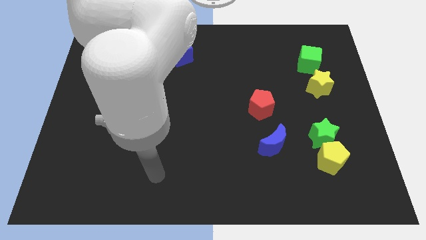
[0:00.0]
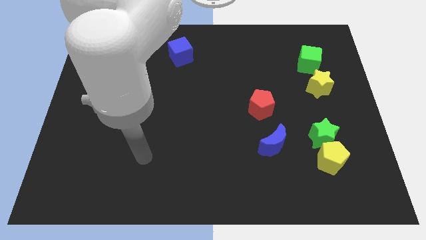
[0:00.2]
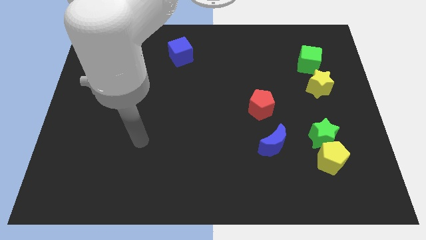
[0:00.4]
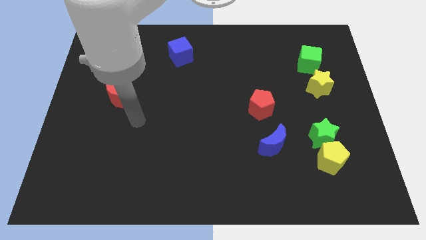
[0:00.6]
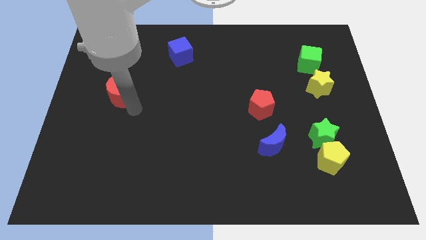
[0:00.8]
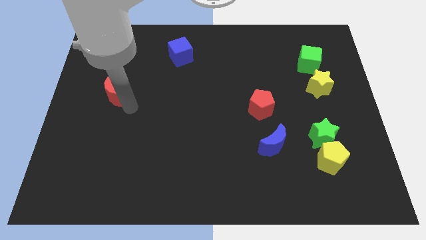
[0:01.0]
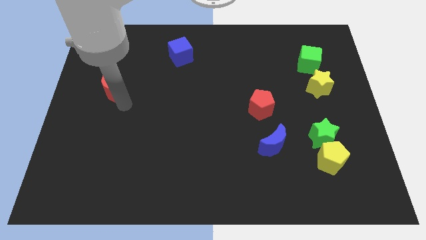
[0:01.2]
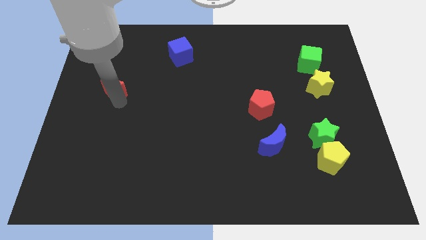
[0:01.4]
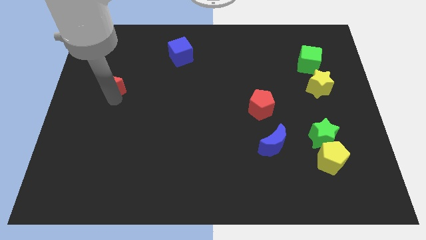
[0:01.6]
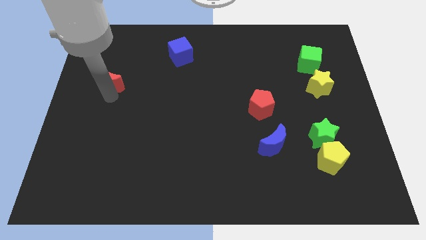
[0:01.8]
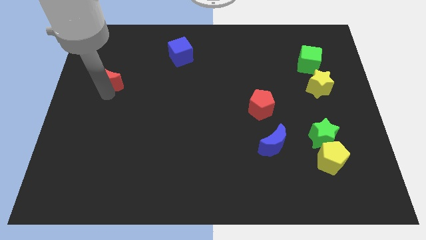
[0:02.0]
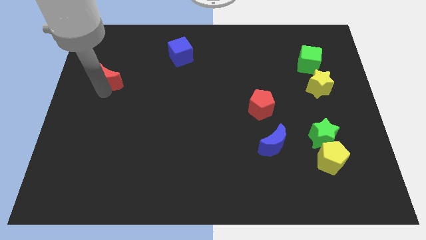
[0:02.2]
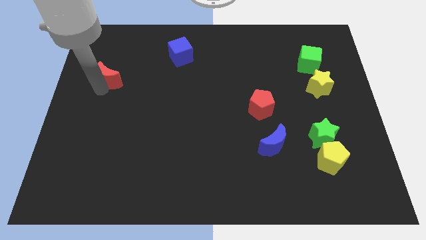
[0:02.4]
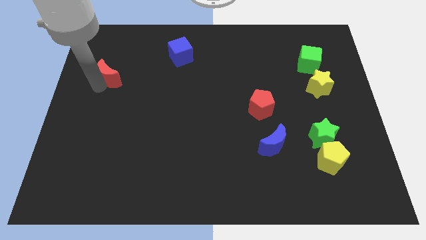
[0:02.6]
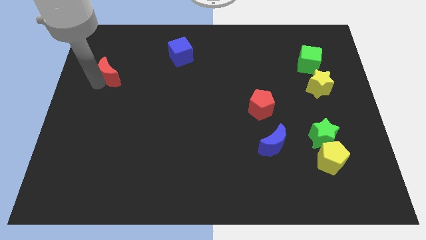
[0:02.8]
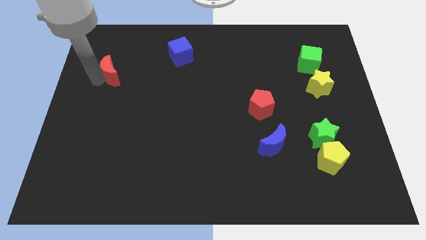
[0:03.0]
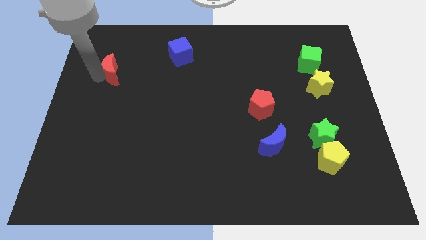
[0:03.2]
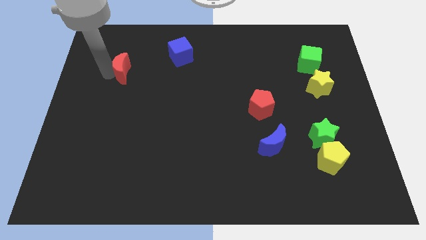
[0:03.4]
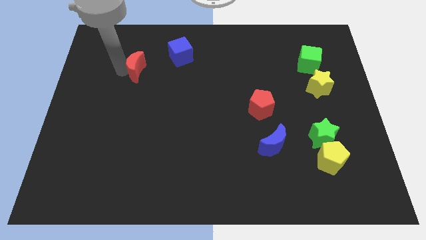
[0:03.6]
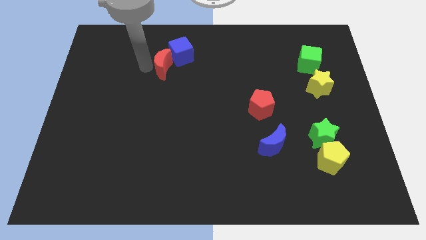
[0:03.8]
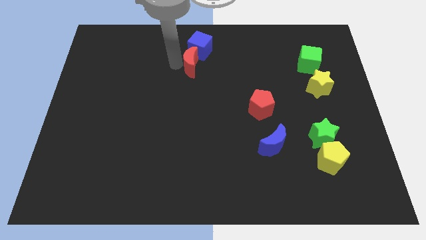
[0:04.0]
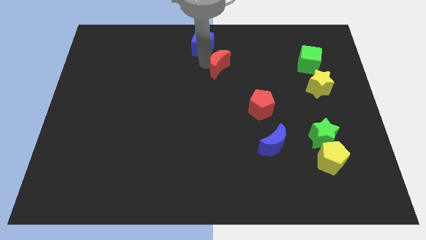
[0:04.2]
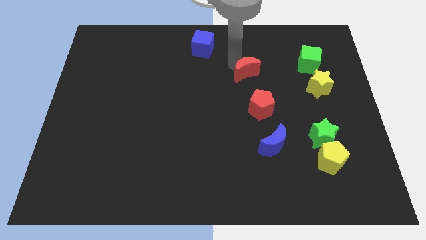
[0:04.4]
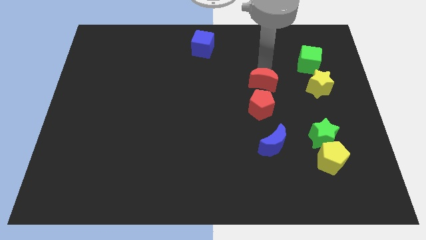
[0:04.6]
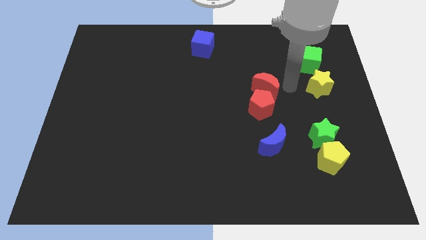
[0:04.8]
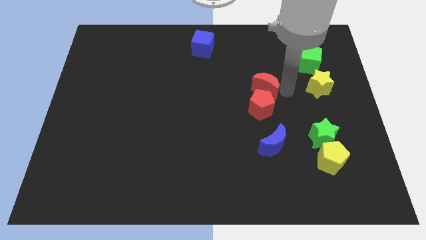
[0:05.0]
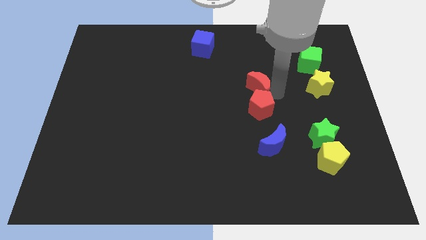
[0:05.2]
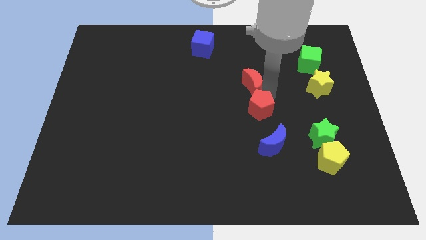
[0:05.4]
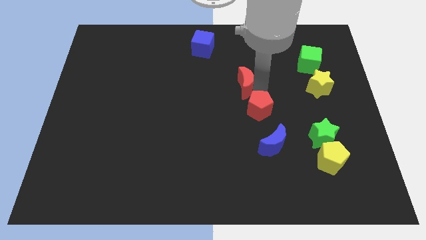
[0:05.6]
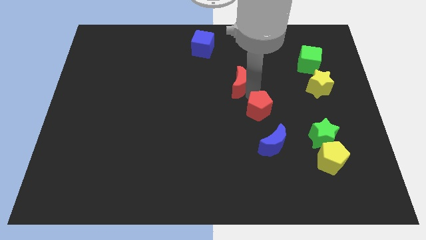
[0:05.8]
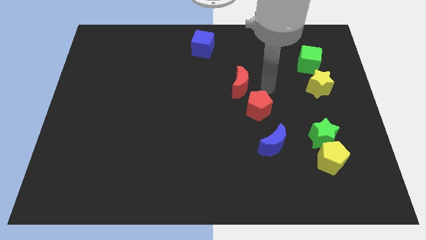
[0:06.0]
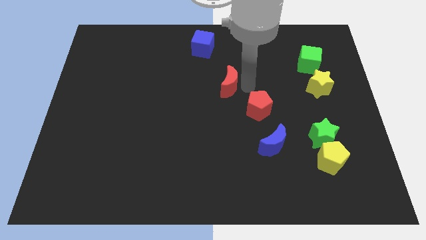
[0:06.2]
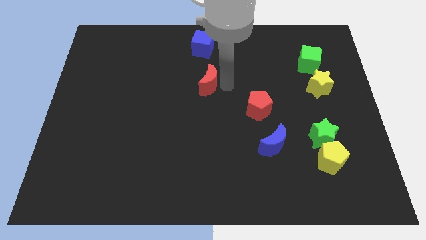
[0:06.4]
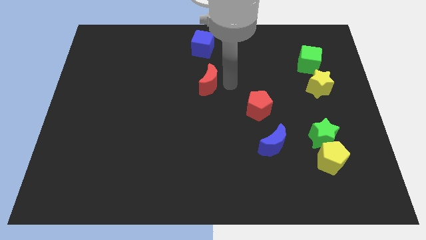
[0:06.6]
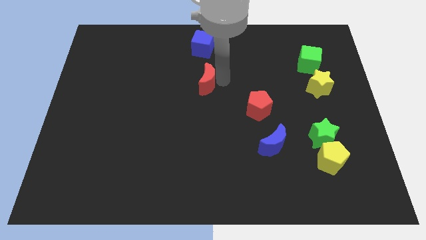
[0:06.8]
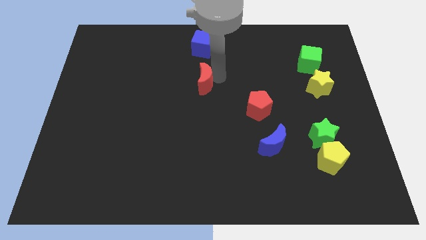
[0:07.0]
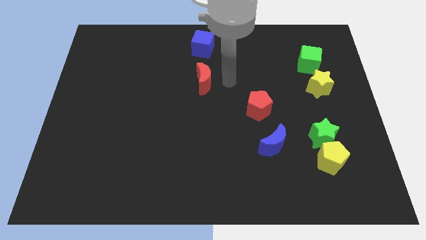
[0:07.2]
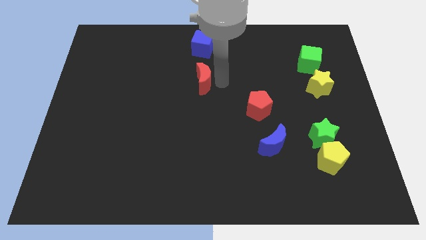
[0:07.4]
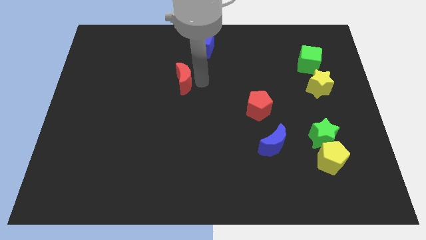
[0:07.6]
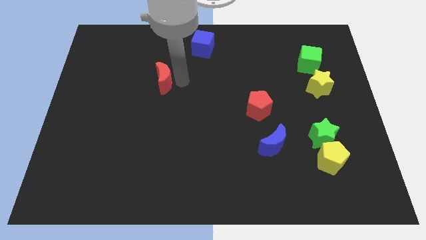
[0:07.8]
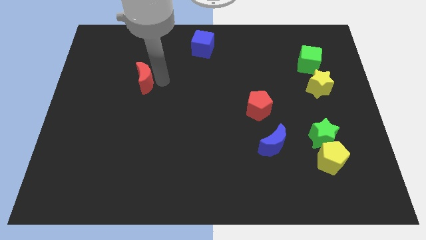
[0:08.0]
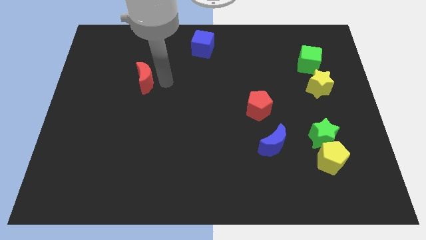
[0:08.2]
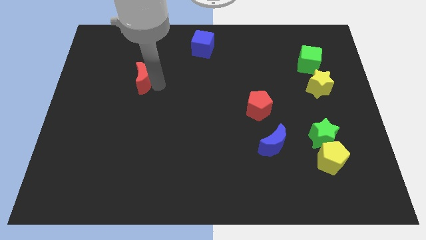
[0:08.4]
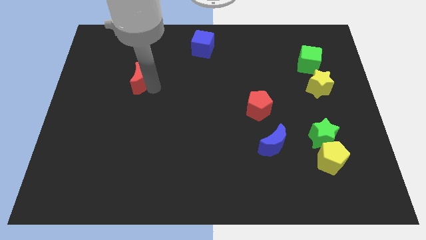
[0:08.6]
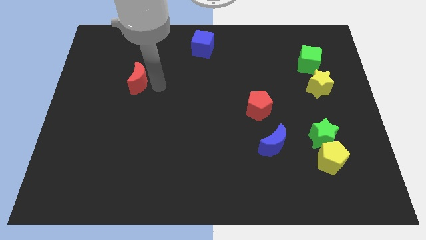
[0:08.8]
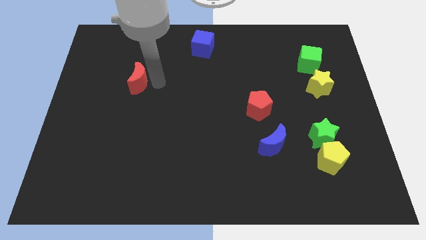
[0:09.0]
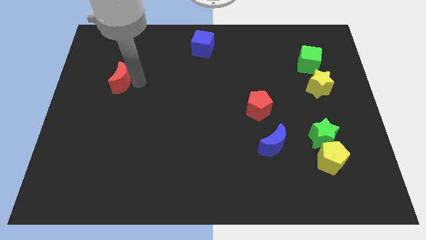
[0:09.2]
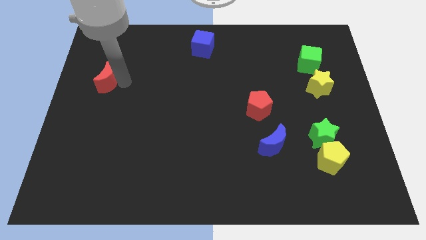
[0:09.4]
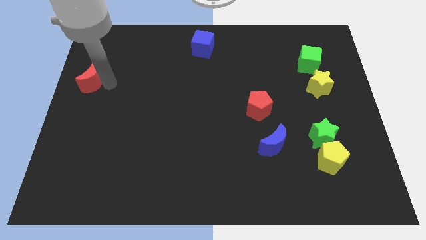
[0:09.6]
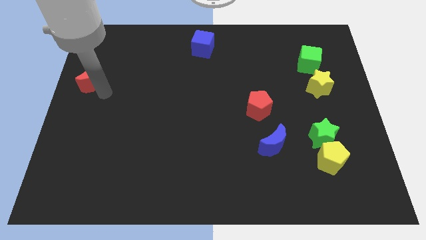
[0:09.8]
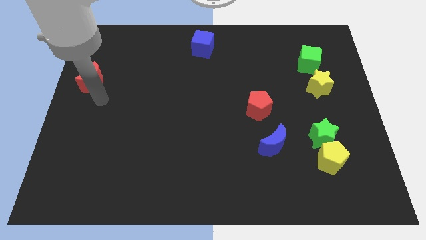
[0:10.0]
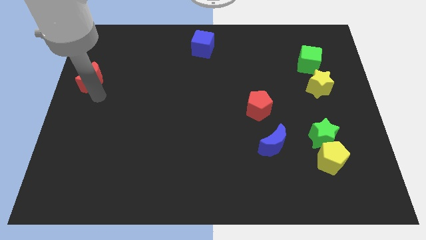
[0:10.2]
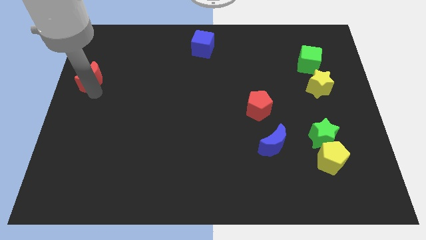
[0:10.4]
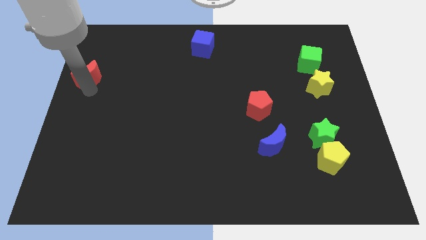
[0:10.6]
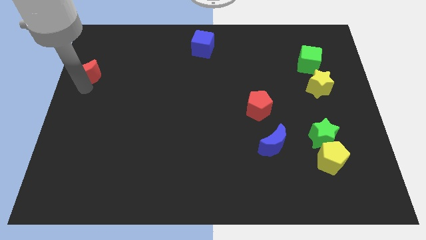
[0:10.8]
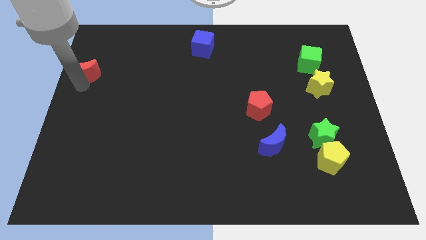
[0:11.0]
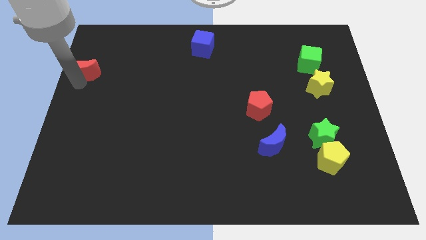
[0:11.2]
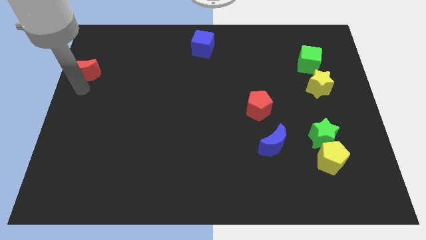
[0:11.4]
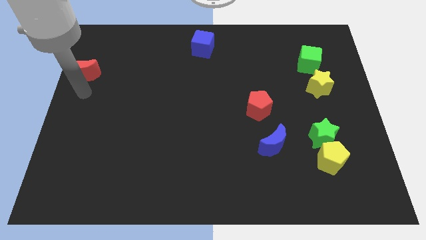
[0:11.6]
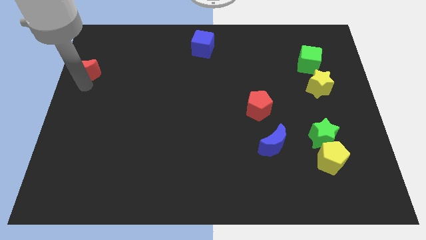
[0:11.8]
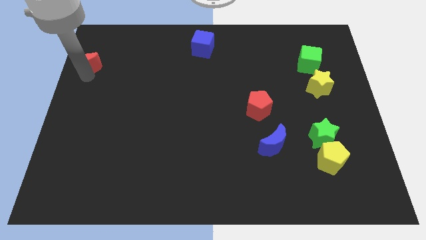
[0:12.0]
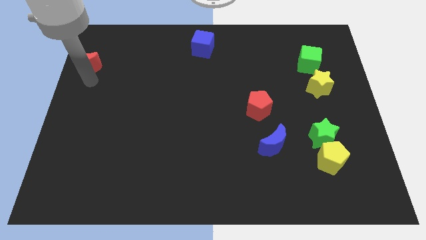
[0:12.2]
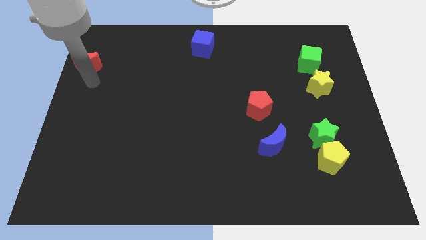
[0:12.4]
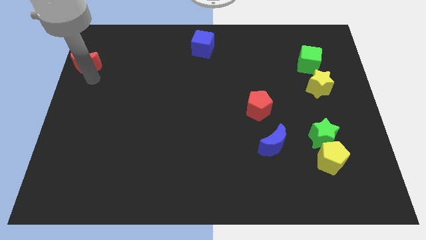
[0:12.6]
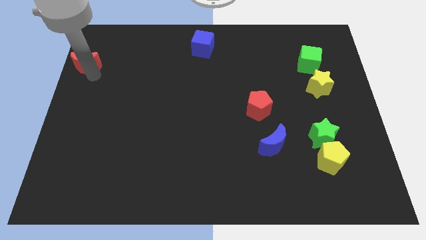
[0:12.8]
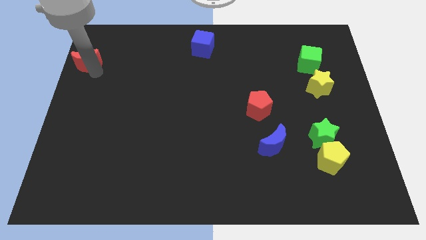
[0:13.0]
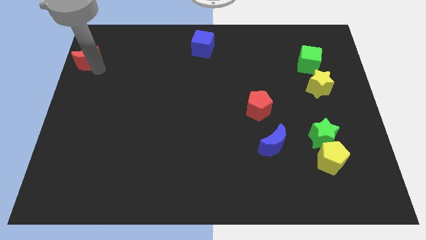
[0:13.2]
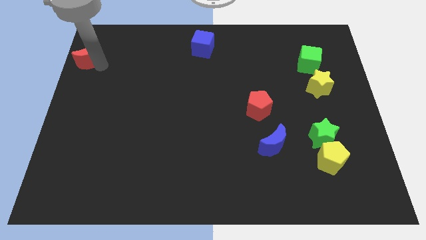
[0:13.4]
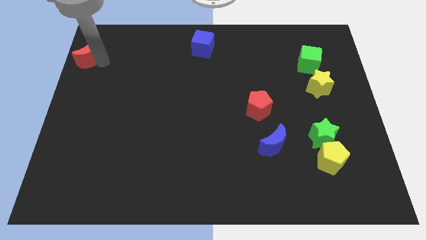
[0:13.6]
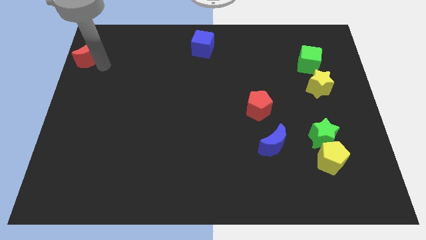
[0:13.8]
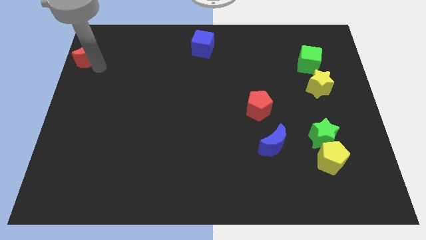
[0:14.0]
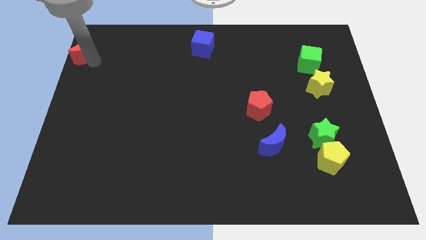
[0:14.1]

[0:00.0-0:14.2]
push the red moon to the top left of the board
